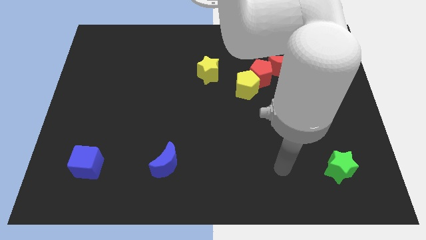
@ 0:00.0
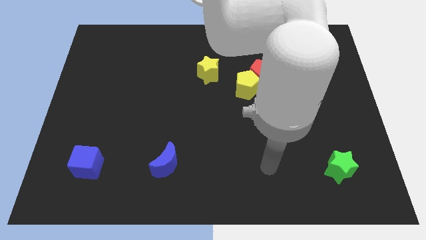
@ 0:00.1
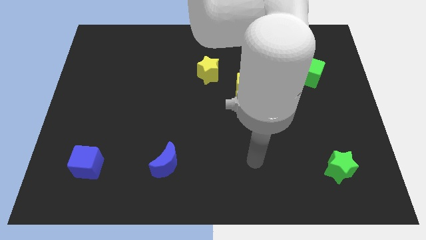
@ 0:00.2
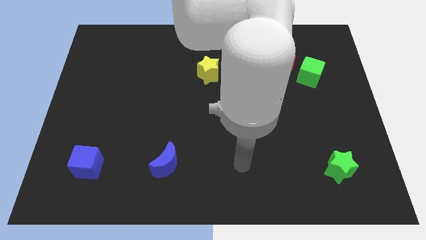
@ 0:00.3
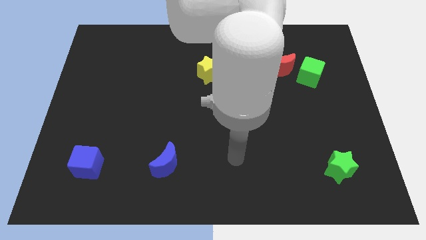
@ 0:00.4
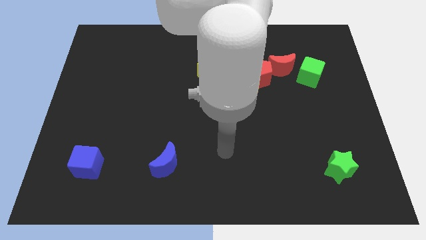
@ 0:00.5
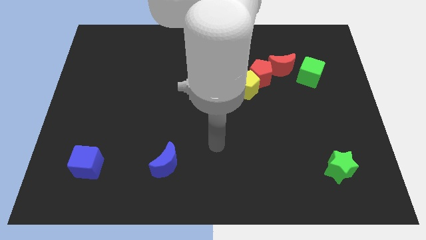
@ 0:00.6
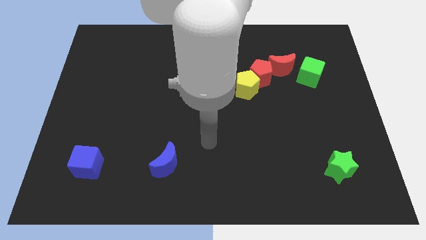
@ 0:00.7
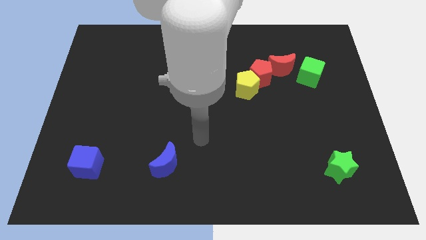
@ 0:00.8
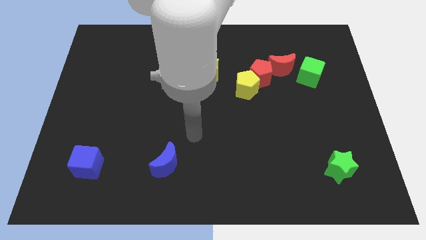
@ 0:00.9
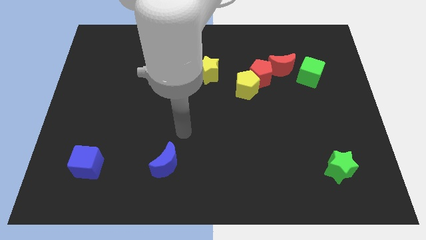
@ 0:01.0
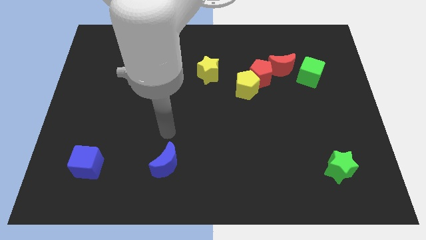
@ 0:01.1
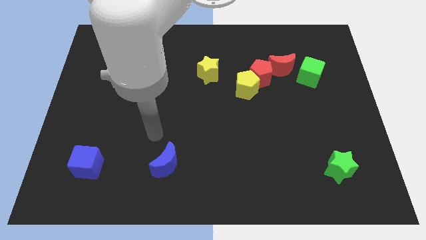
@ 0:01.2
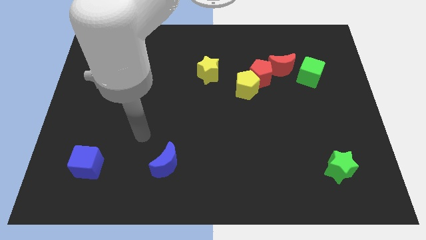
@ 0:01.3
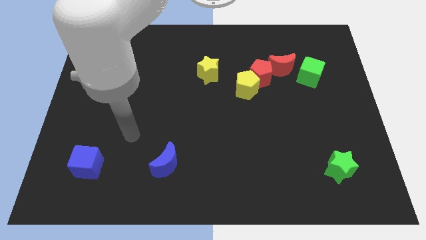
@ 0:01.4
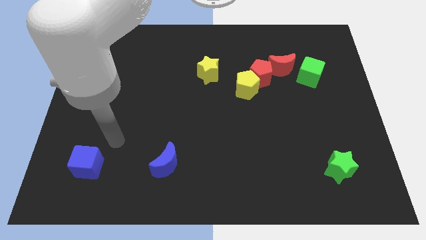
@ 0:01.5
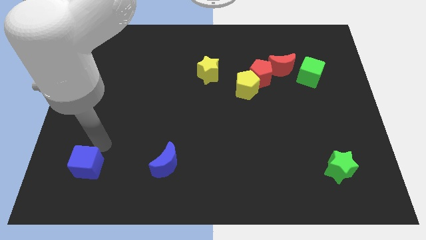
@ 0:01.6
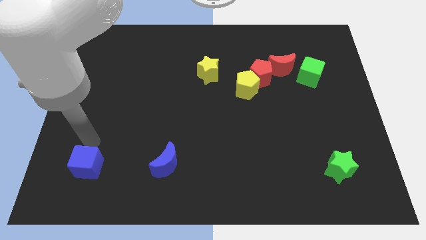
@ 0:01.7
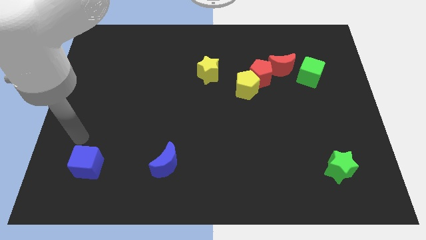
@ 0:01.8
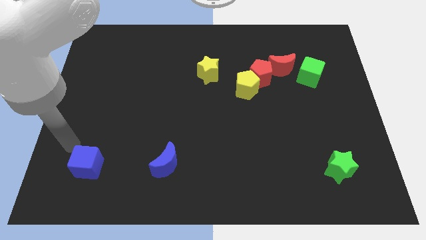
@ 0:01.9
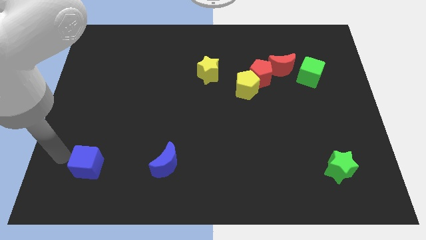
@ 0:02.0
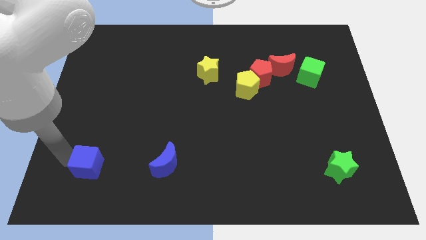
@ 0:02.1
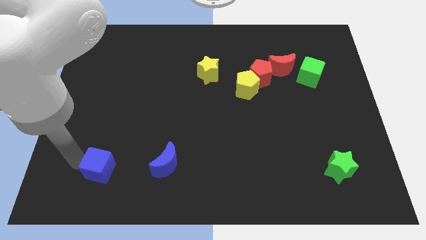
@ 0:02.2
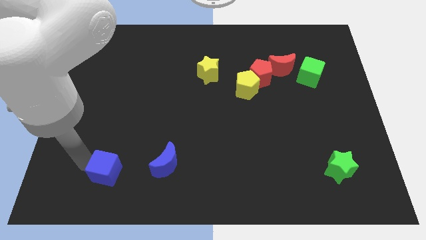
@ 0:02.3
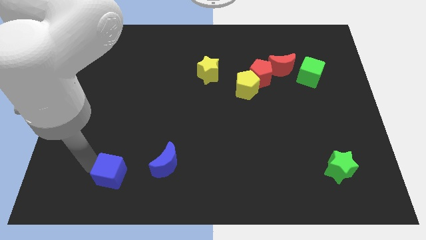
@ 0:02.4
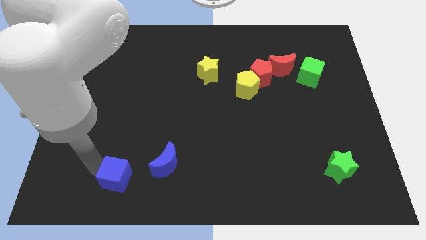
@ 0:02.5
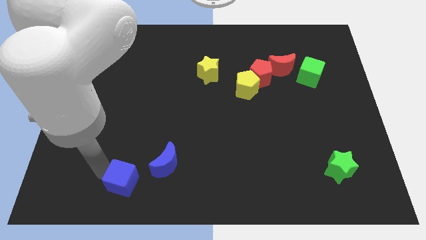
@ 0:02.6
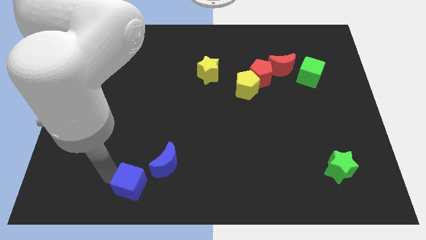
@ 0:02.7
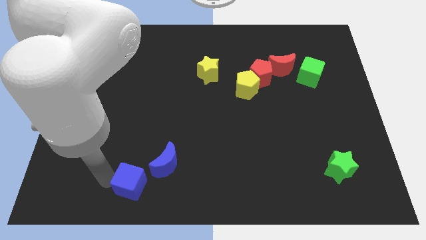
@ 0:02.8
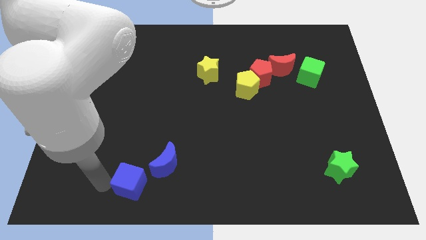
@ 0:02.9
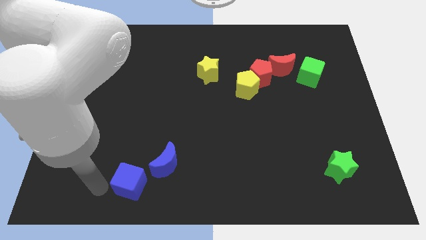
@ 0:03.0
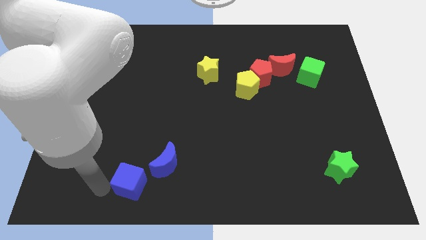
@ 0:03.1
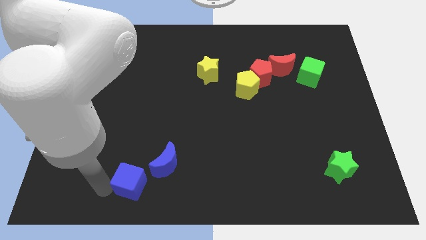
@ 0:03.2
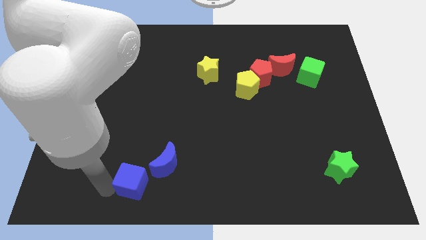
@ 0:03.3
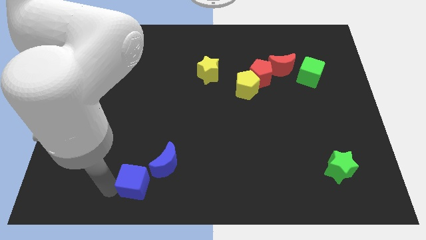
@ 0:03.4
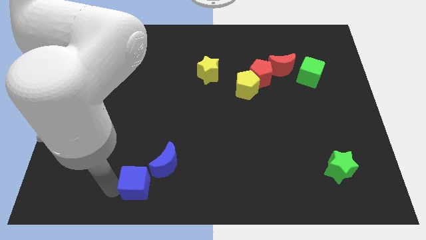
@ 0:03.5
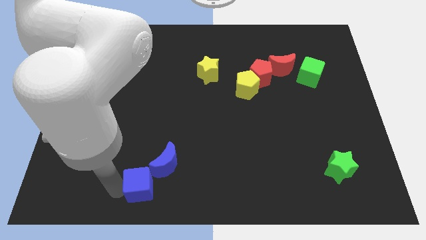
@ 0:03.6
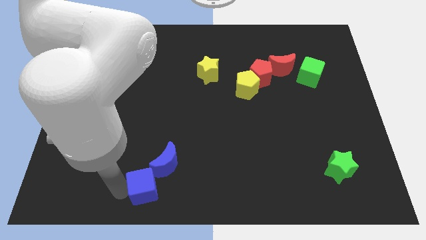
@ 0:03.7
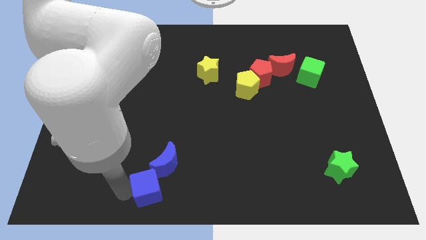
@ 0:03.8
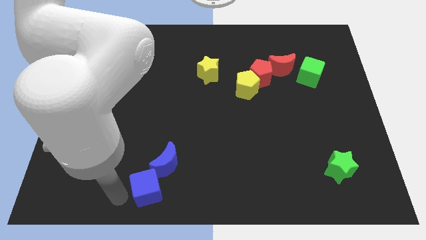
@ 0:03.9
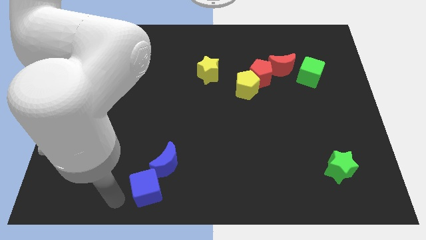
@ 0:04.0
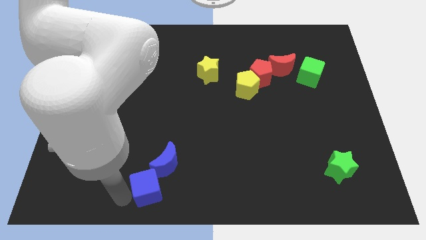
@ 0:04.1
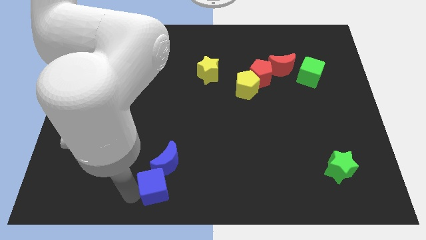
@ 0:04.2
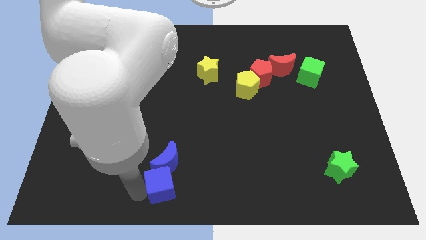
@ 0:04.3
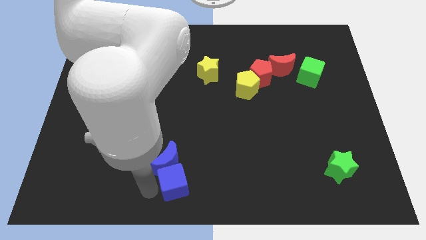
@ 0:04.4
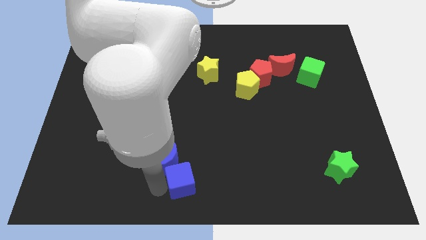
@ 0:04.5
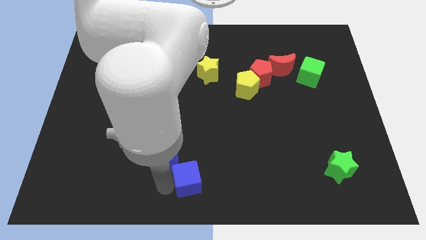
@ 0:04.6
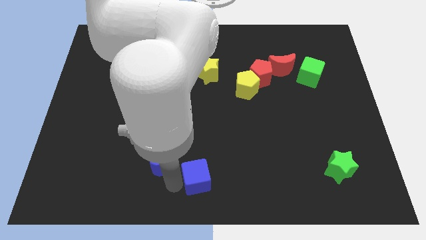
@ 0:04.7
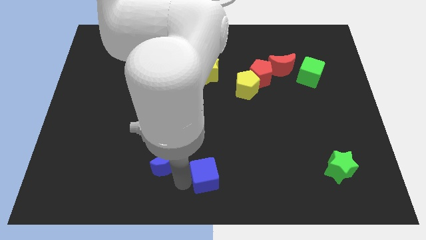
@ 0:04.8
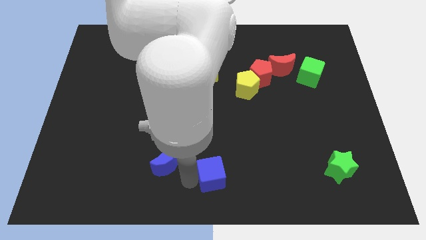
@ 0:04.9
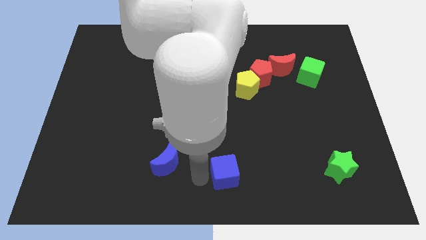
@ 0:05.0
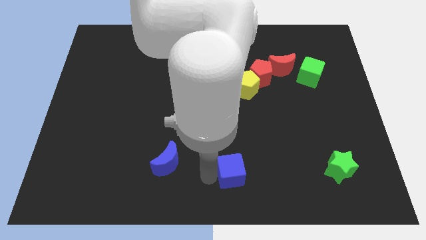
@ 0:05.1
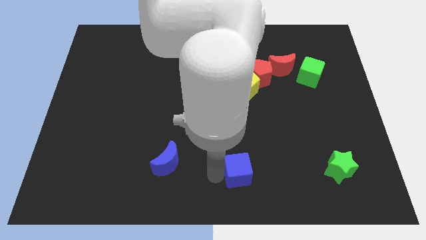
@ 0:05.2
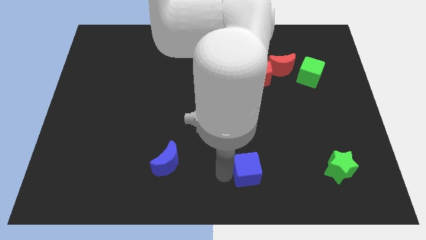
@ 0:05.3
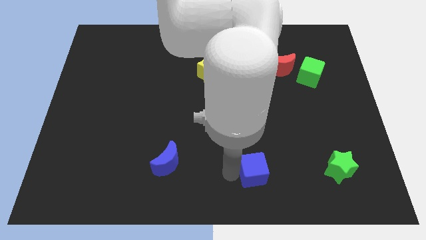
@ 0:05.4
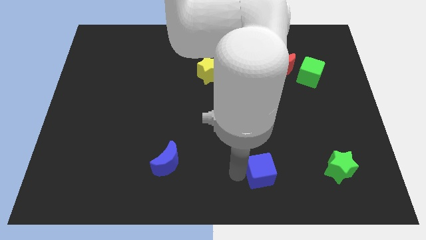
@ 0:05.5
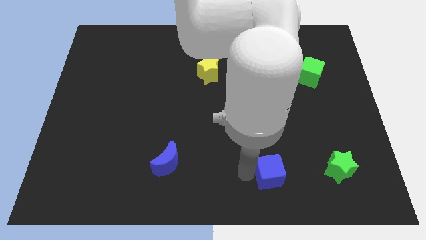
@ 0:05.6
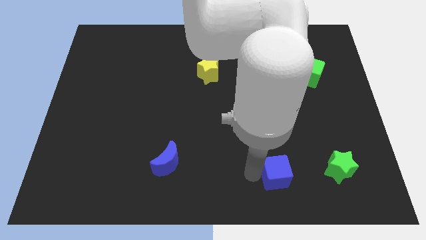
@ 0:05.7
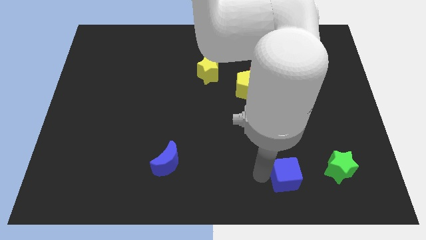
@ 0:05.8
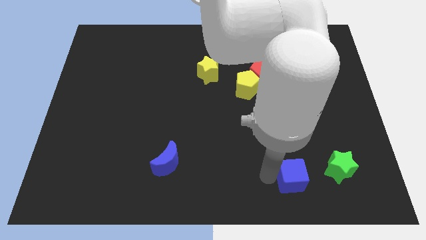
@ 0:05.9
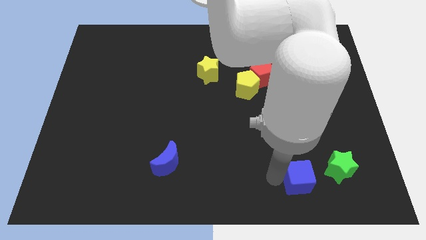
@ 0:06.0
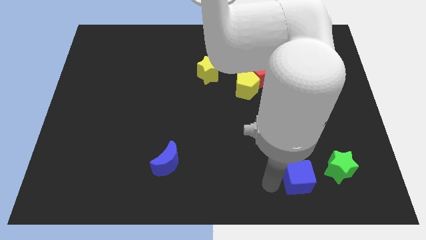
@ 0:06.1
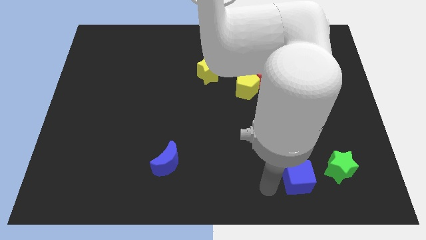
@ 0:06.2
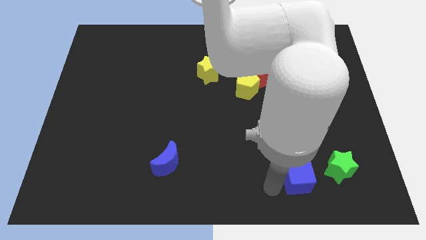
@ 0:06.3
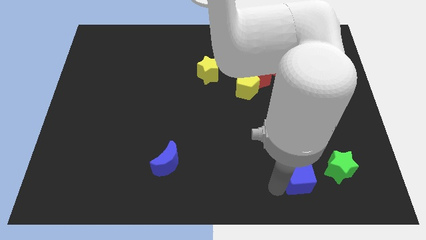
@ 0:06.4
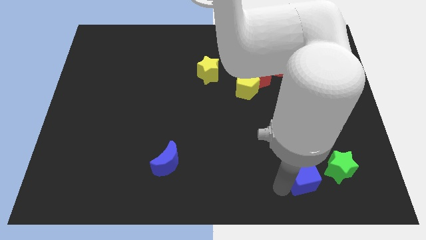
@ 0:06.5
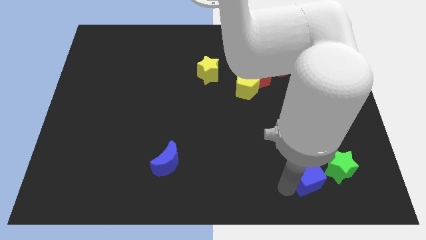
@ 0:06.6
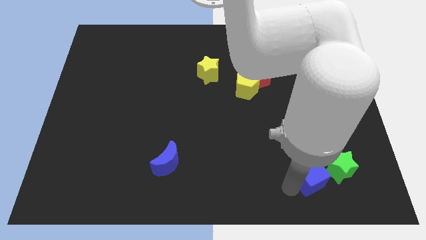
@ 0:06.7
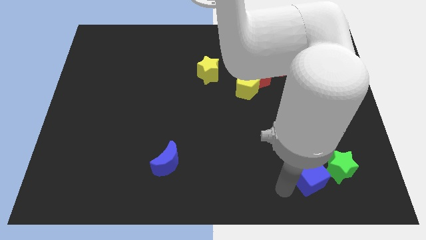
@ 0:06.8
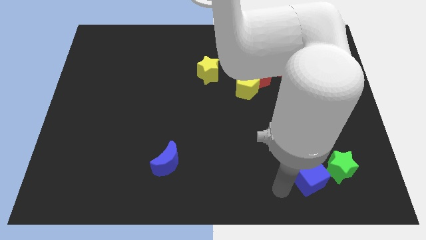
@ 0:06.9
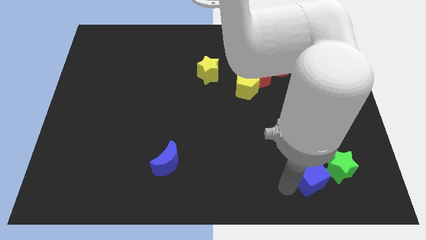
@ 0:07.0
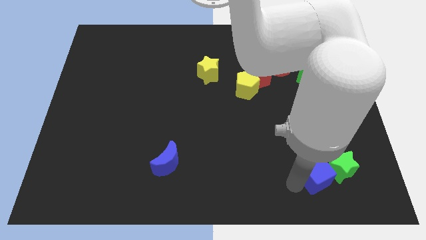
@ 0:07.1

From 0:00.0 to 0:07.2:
slide the blue cube close to the green star

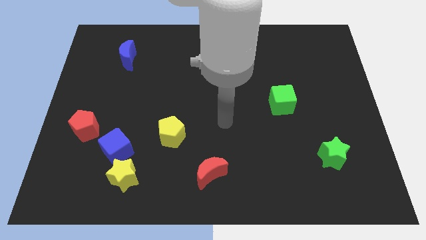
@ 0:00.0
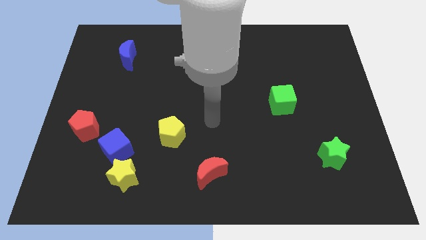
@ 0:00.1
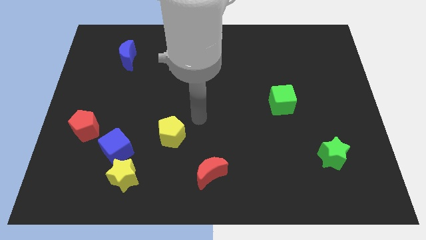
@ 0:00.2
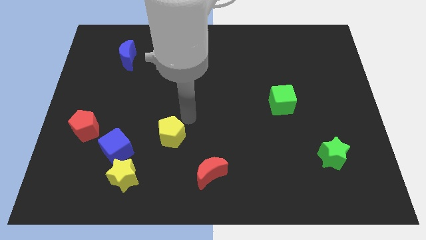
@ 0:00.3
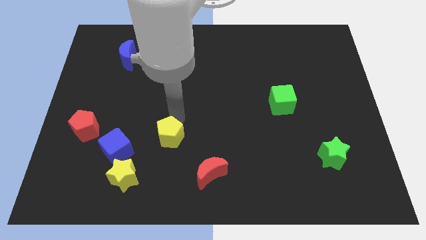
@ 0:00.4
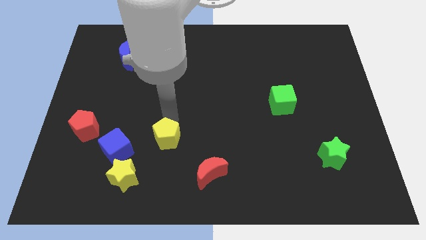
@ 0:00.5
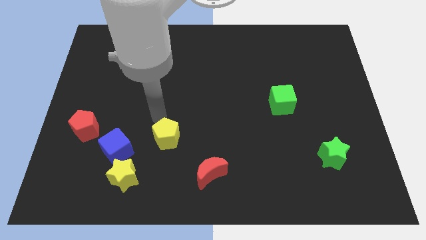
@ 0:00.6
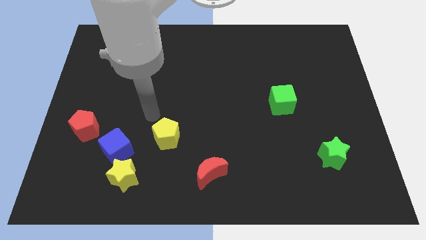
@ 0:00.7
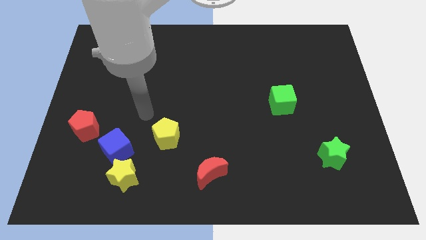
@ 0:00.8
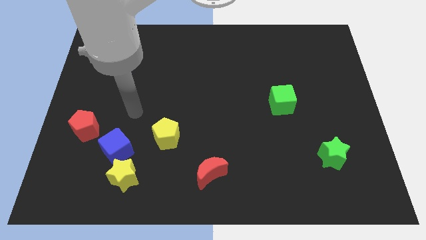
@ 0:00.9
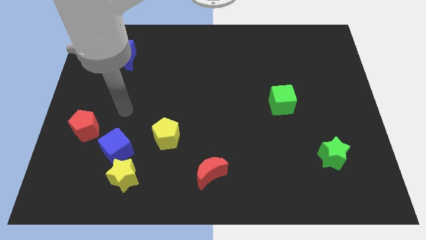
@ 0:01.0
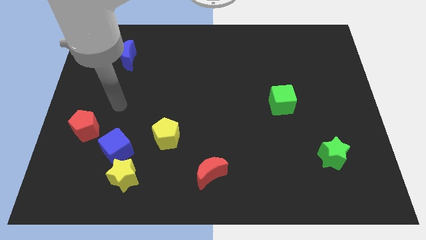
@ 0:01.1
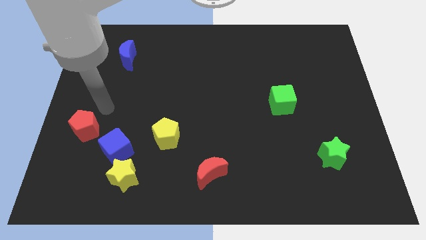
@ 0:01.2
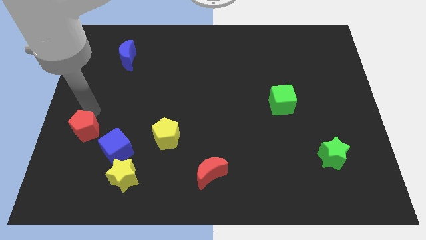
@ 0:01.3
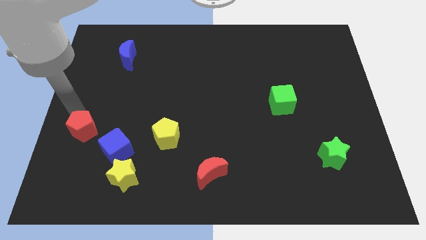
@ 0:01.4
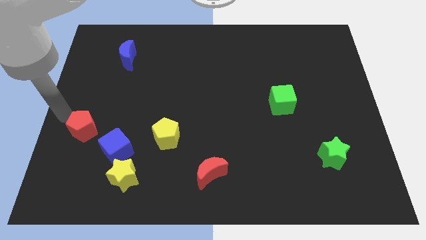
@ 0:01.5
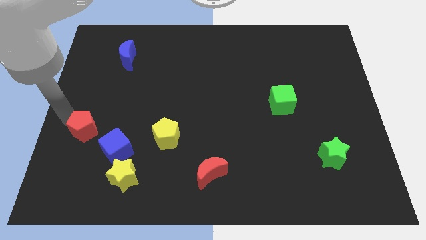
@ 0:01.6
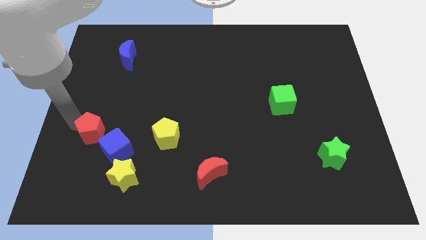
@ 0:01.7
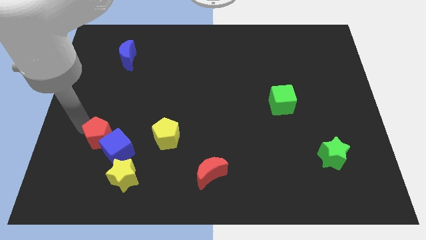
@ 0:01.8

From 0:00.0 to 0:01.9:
put the red pentagon towards the blue cube
